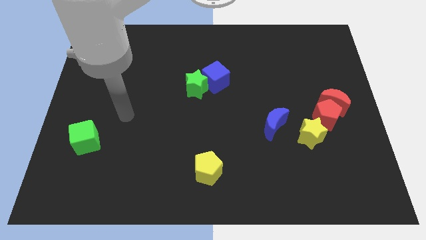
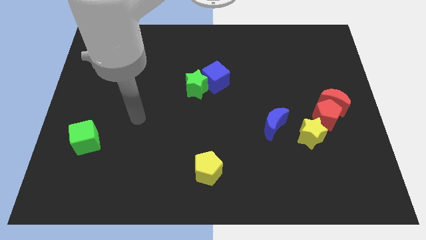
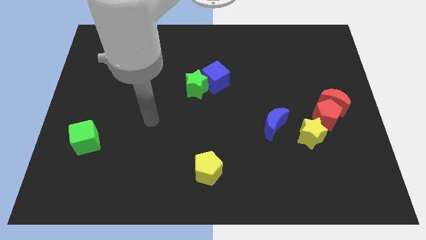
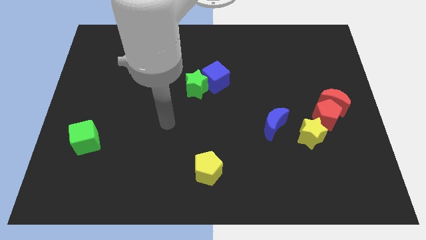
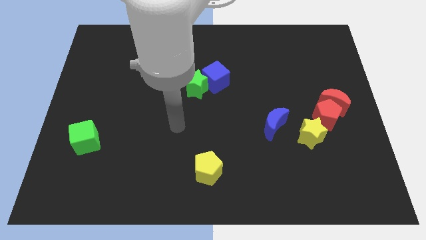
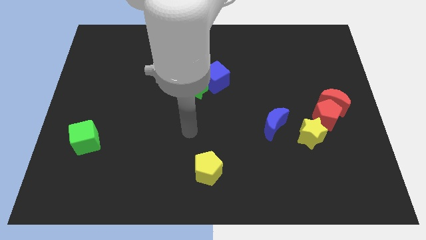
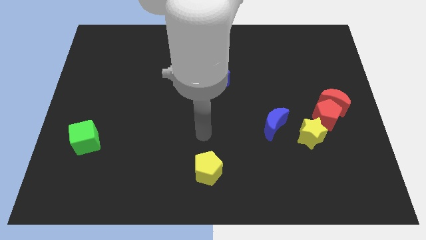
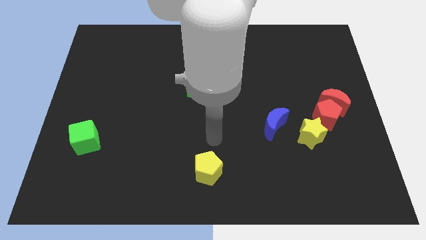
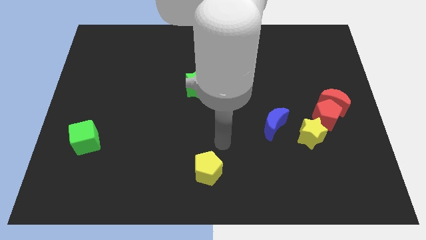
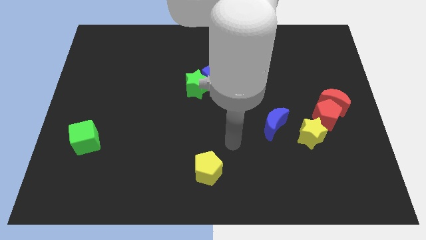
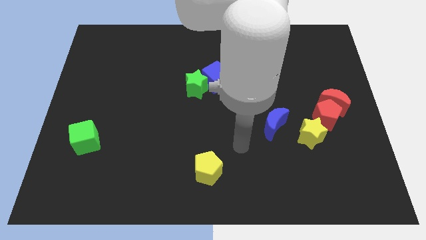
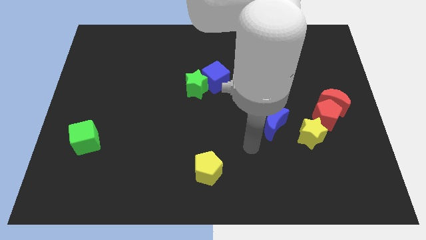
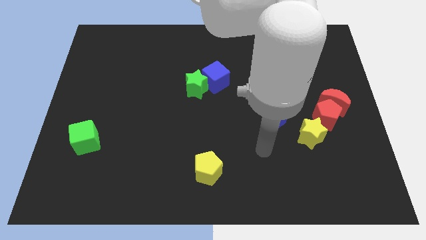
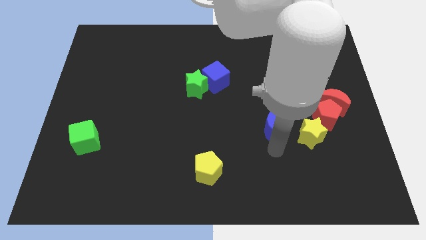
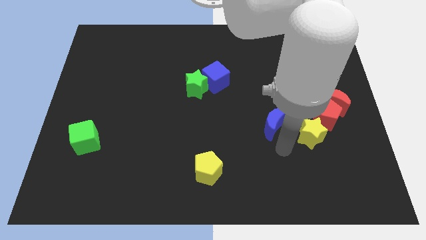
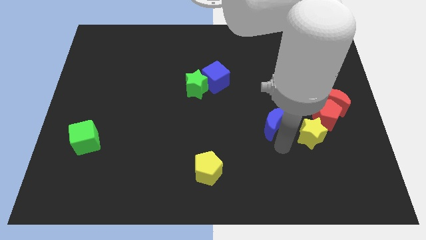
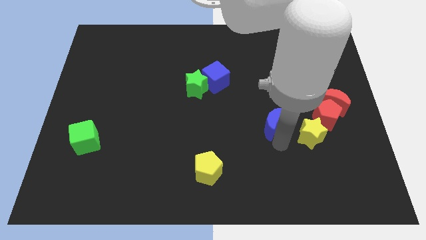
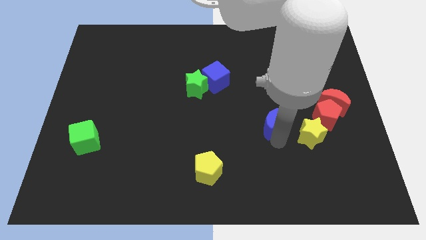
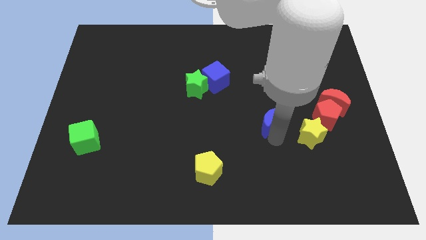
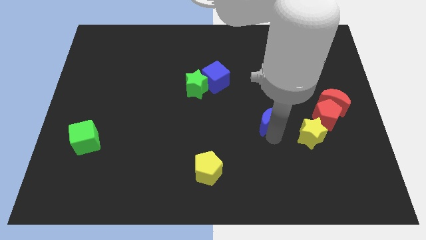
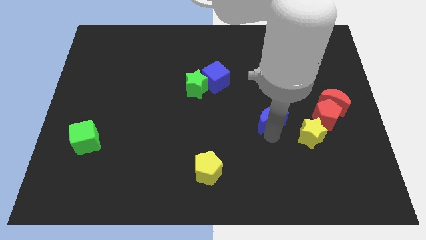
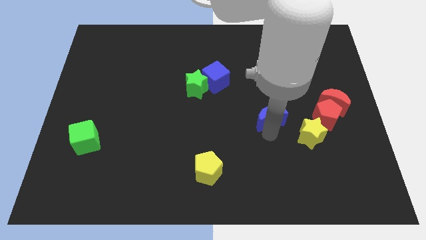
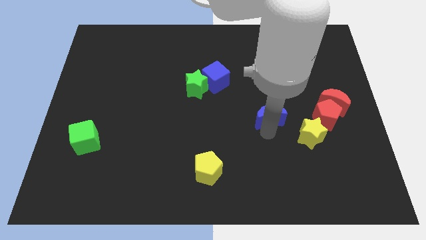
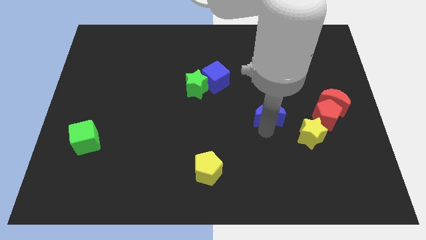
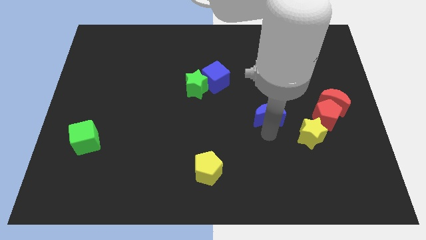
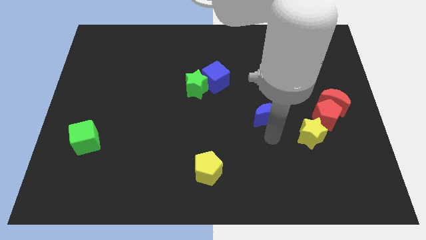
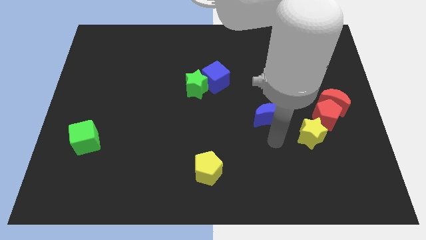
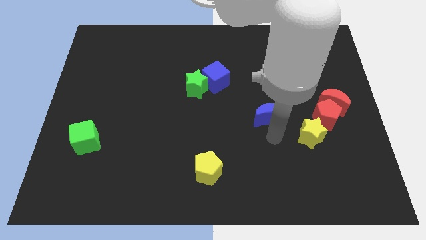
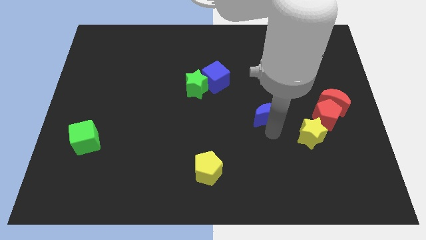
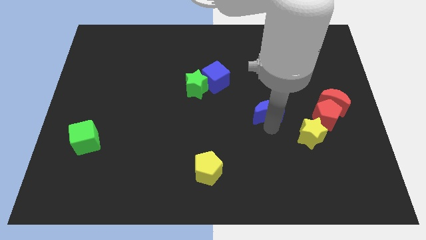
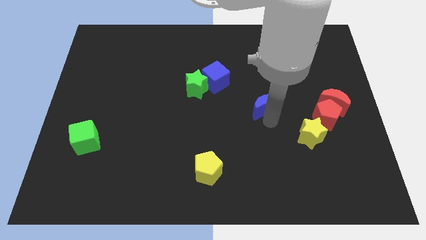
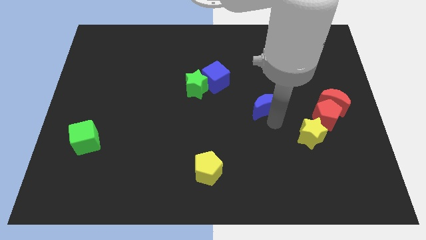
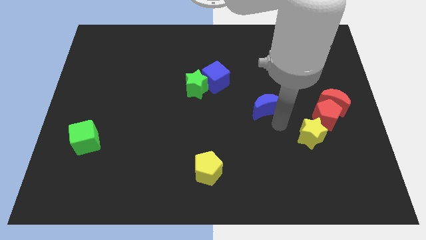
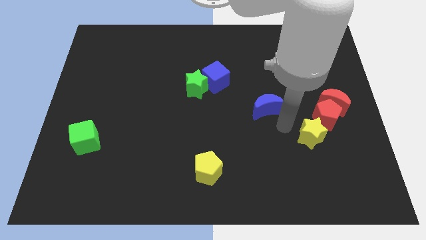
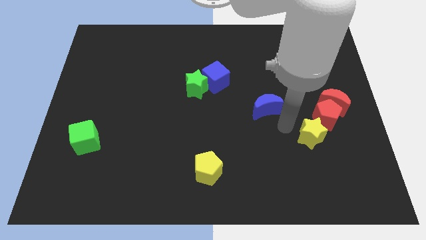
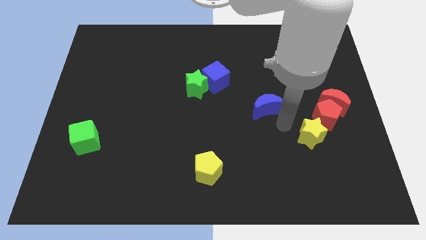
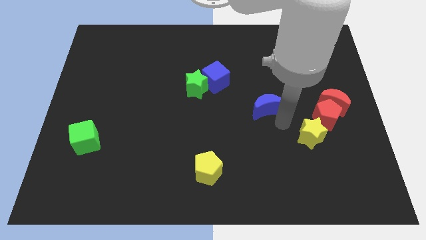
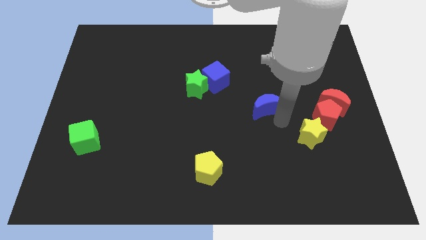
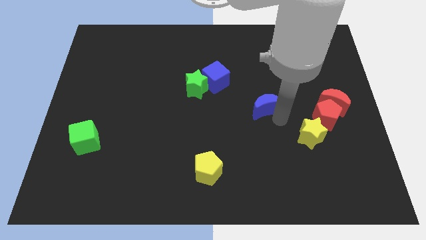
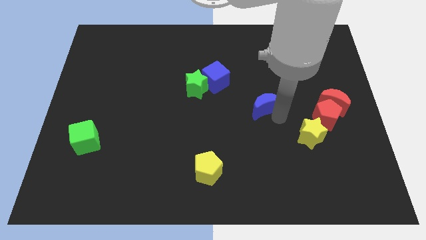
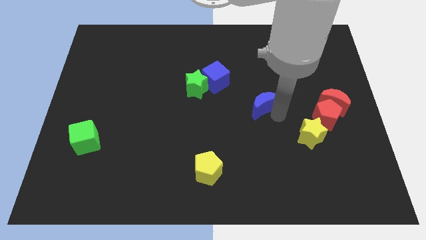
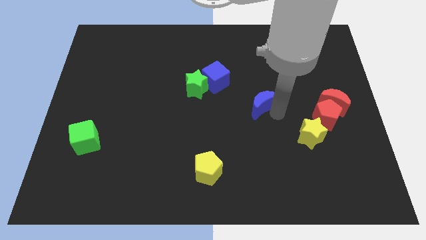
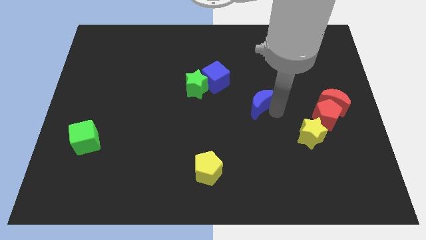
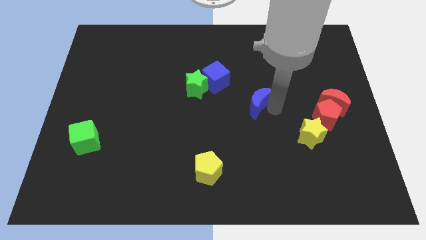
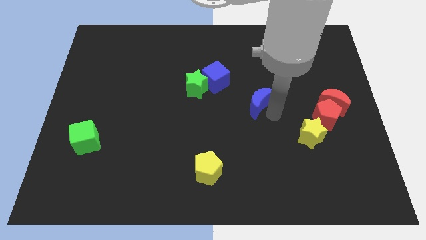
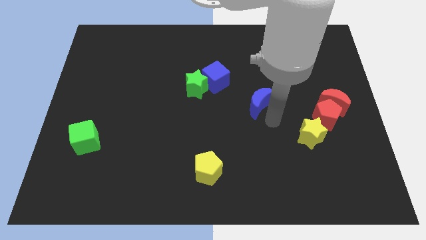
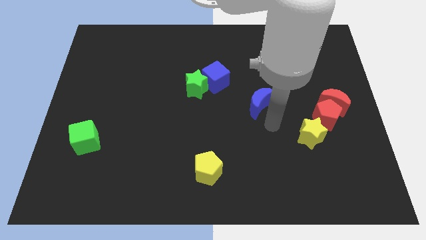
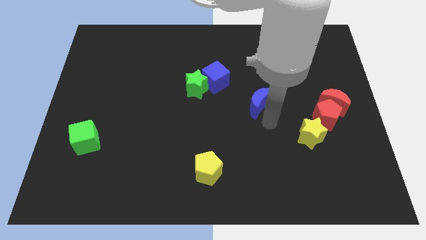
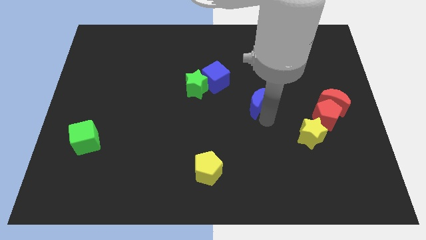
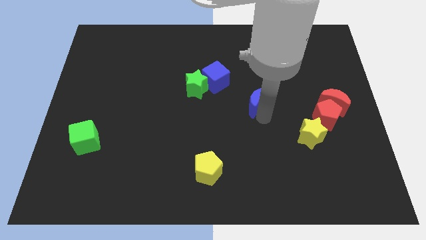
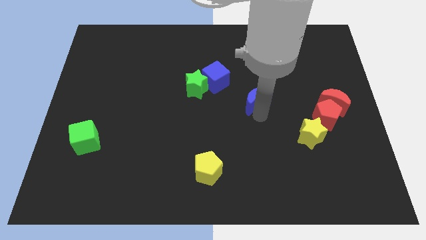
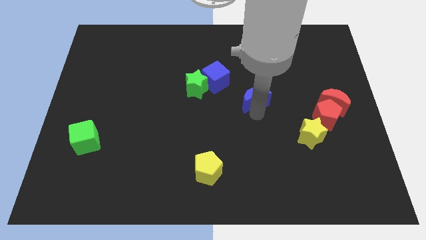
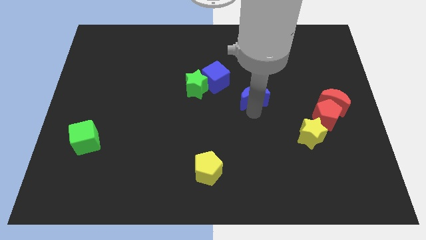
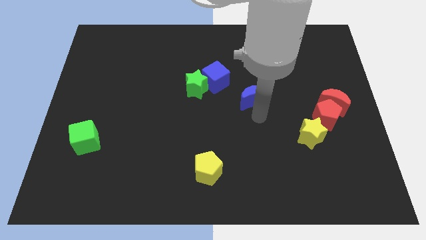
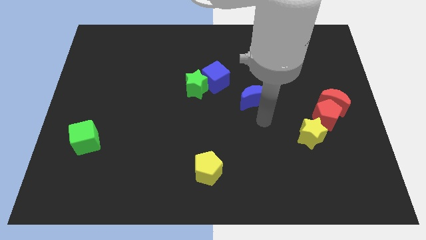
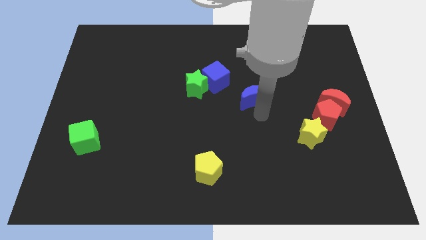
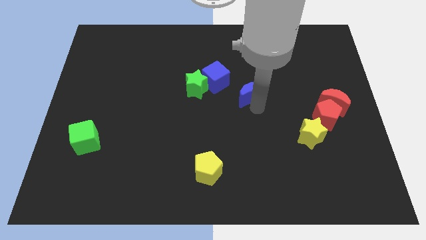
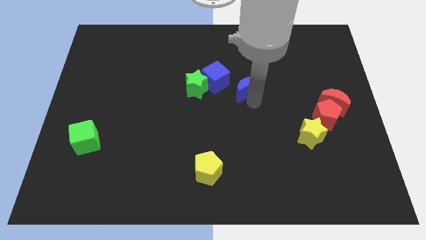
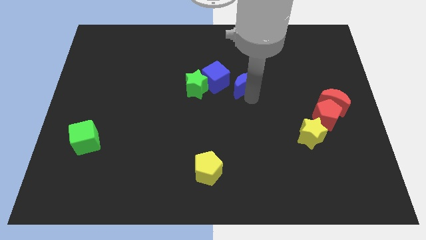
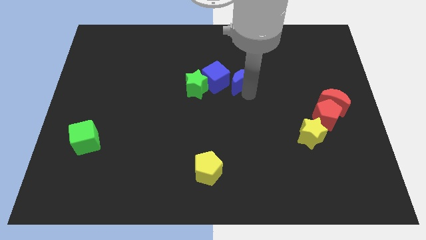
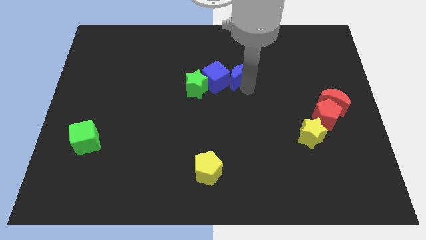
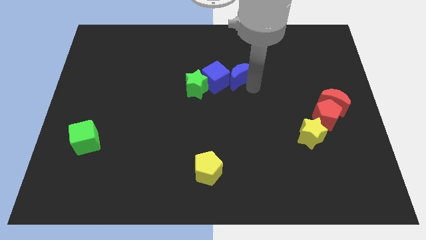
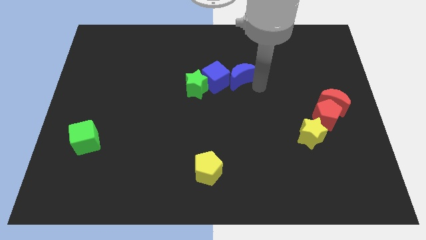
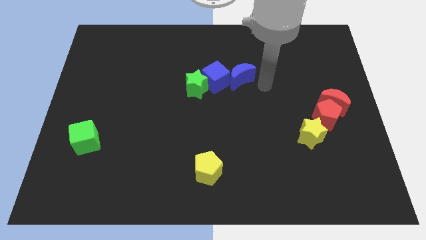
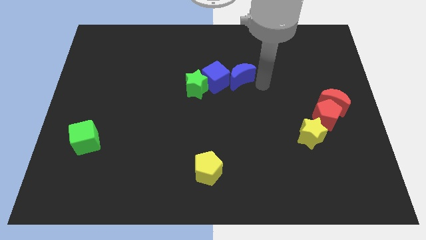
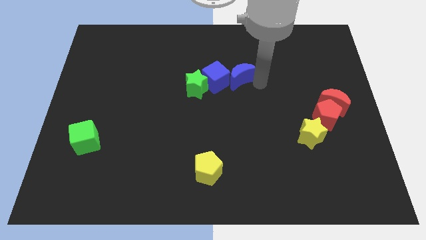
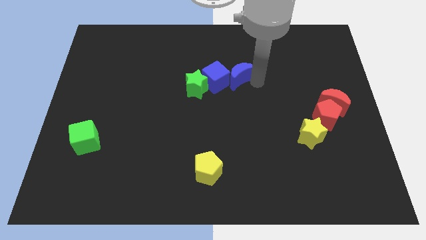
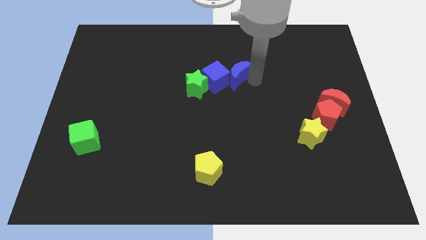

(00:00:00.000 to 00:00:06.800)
push the blue moon to the top right of the green star

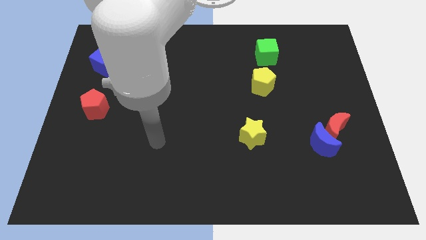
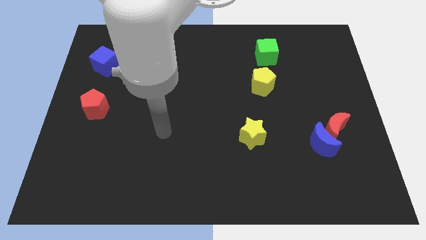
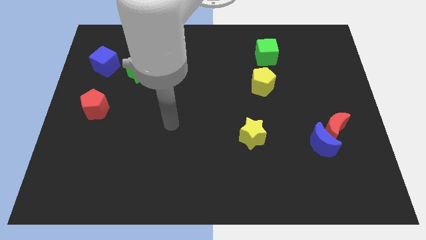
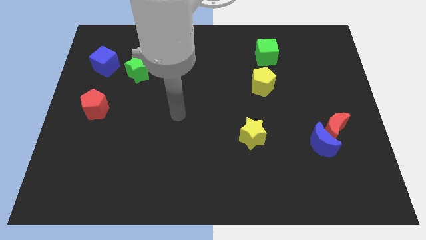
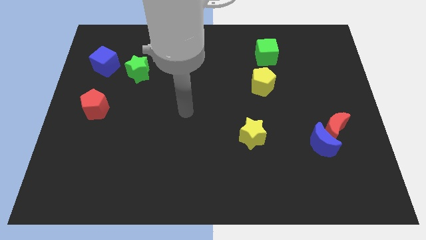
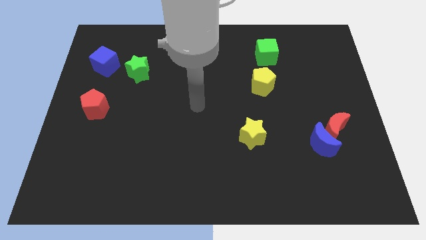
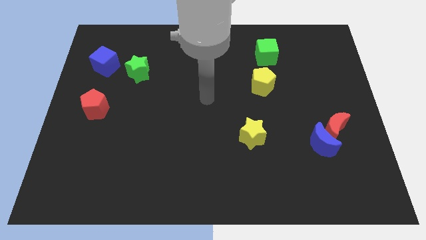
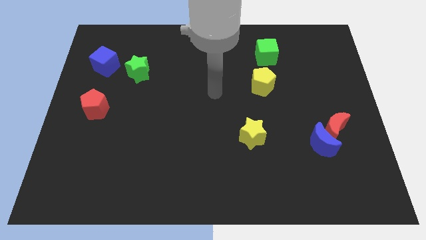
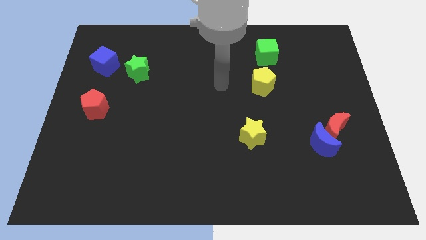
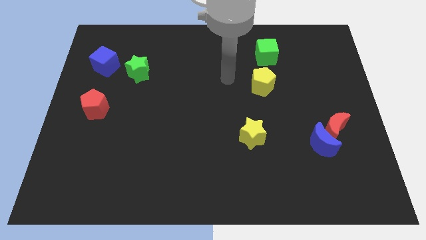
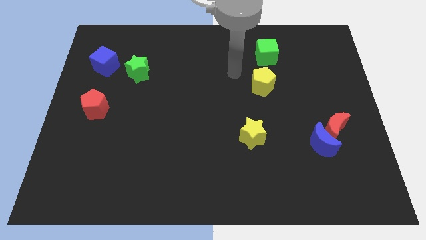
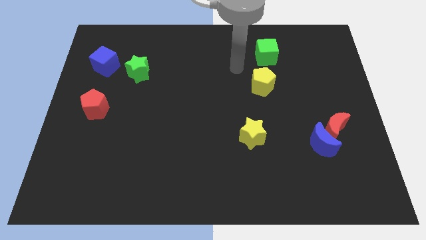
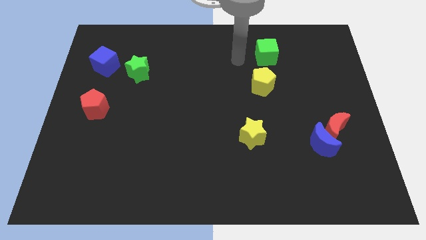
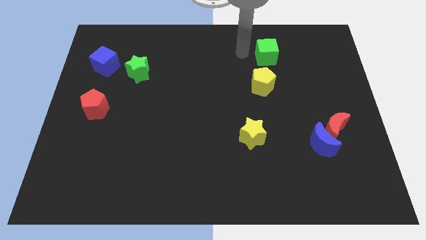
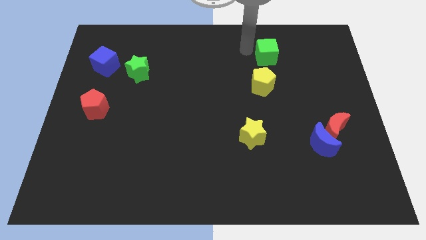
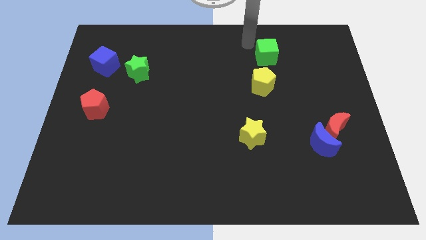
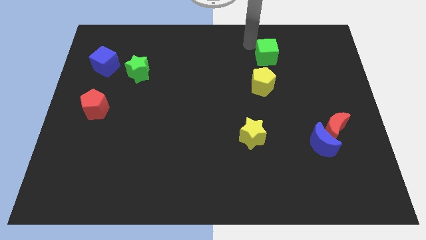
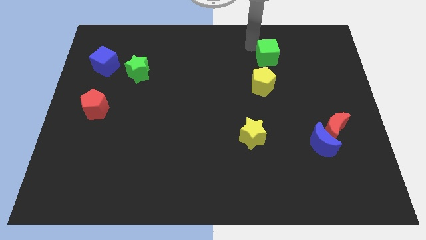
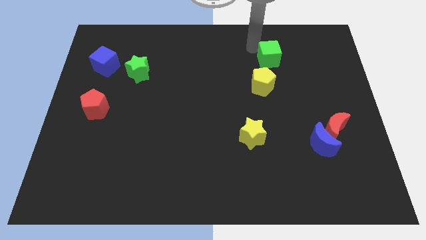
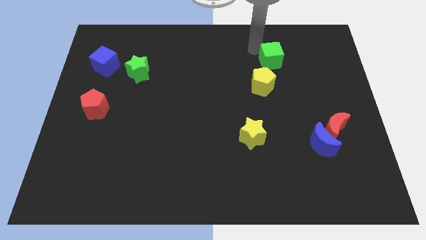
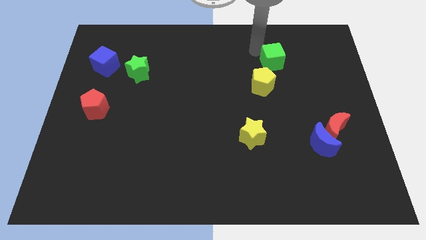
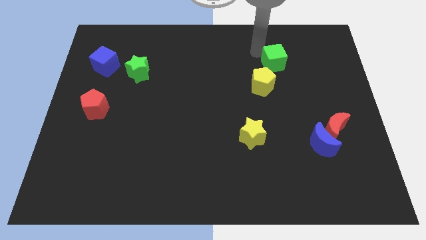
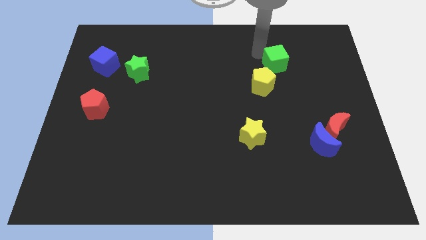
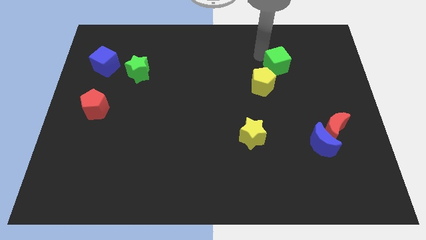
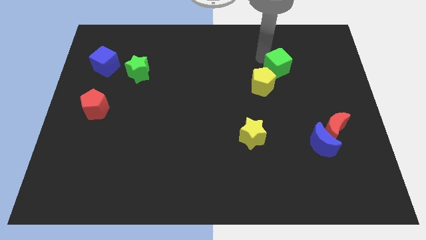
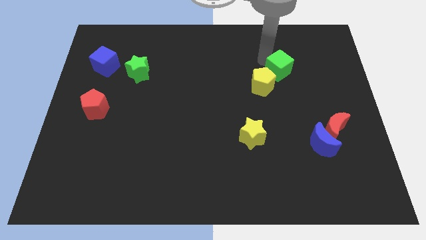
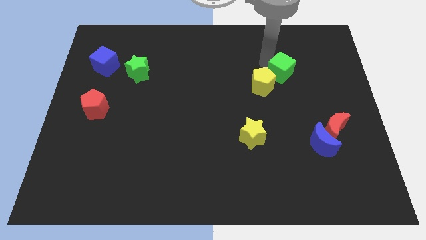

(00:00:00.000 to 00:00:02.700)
push the green cube right of the yellow pentagon
